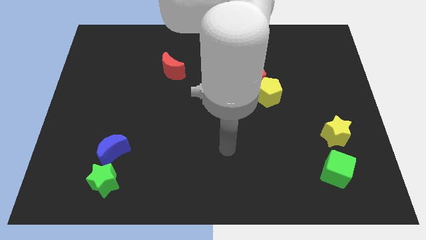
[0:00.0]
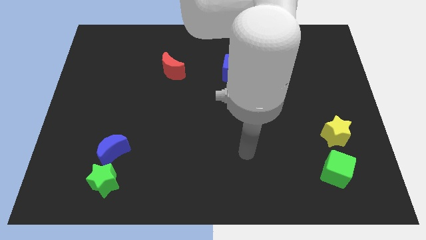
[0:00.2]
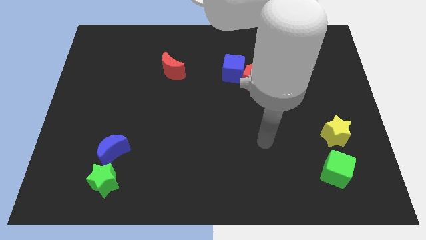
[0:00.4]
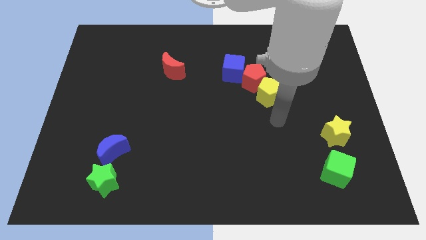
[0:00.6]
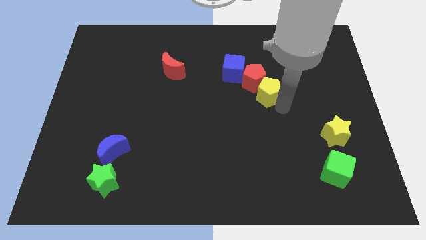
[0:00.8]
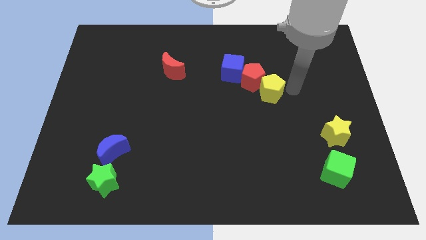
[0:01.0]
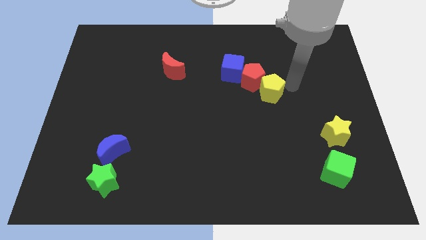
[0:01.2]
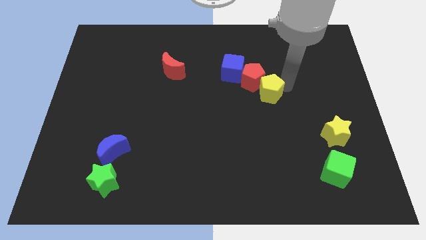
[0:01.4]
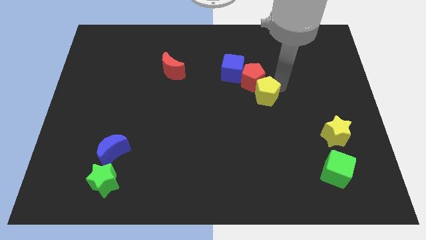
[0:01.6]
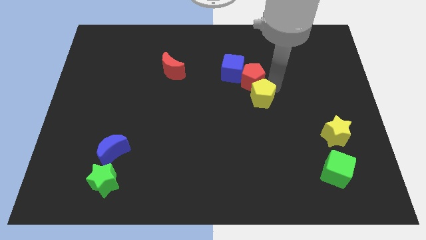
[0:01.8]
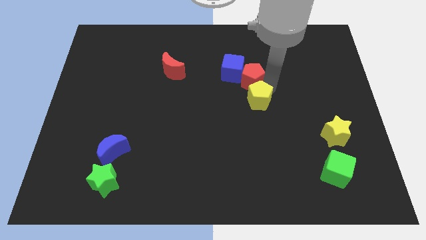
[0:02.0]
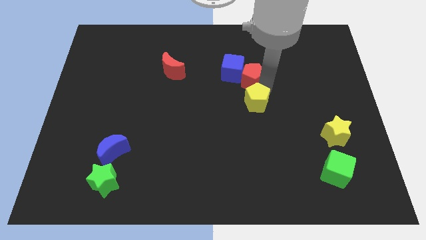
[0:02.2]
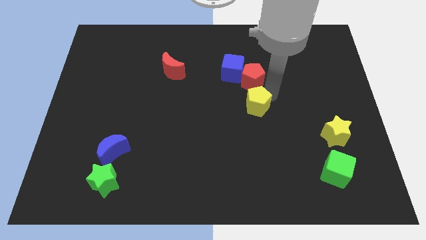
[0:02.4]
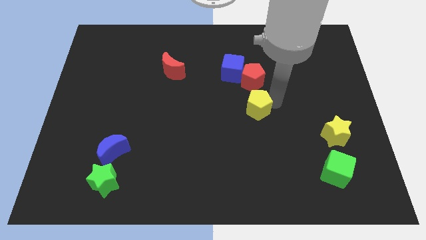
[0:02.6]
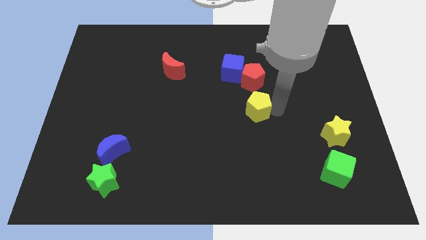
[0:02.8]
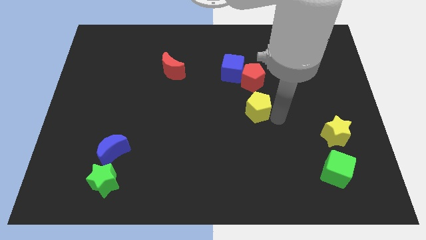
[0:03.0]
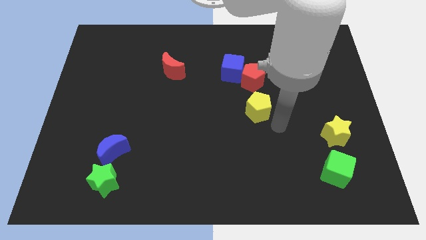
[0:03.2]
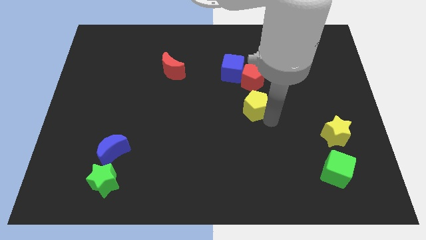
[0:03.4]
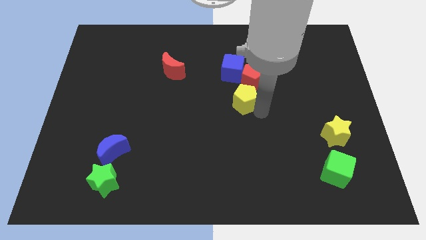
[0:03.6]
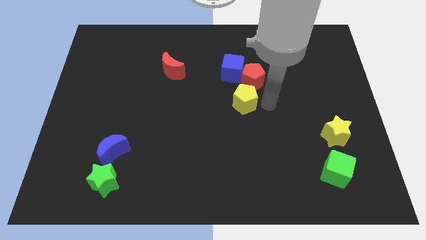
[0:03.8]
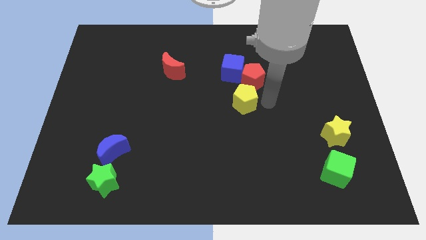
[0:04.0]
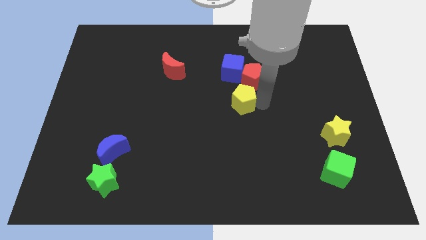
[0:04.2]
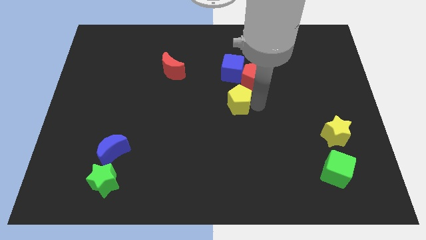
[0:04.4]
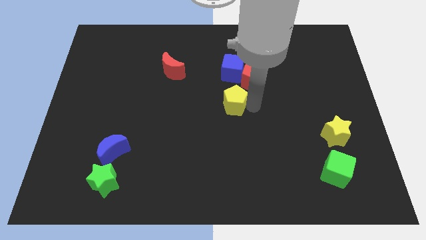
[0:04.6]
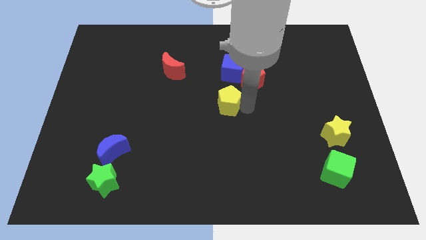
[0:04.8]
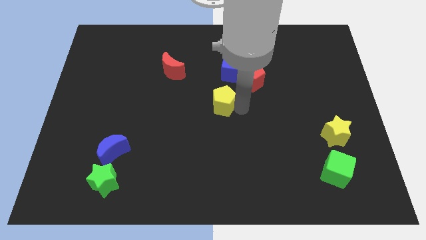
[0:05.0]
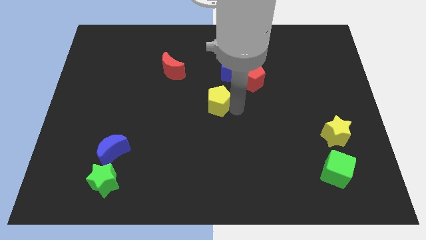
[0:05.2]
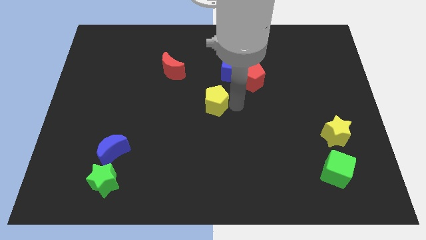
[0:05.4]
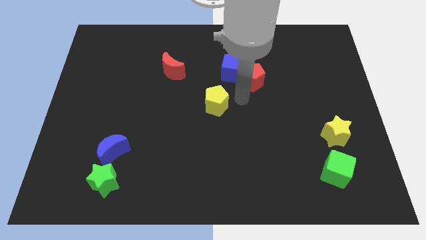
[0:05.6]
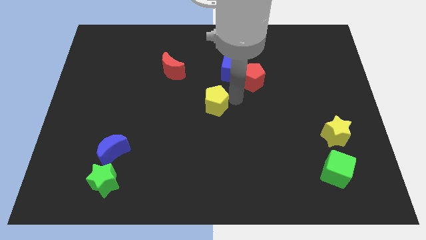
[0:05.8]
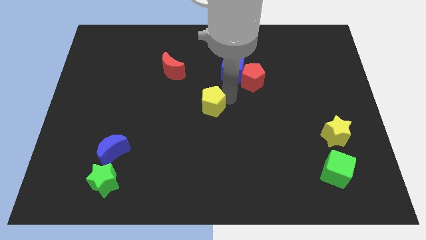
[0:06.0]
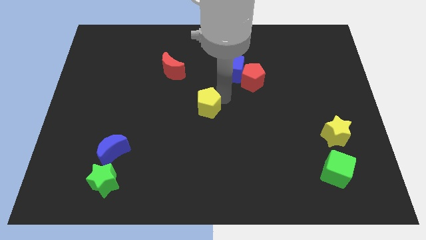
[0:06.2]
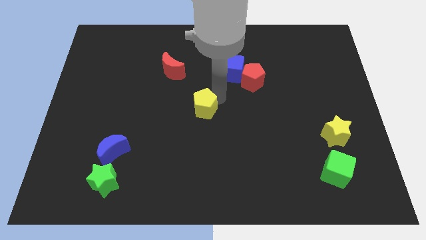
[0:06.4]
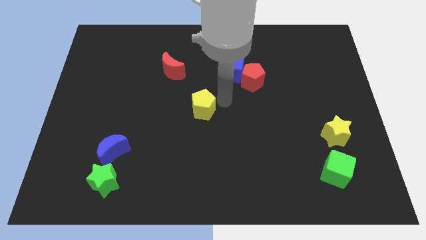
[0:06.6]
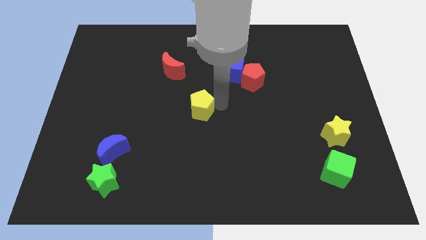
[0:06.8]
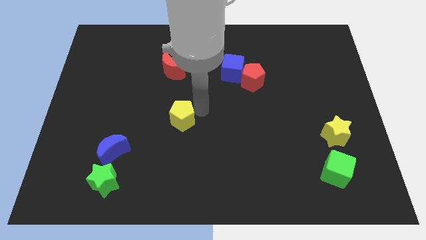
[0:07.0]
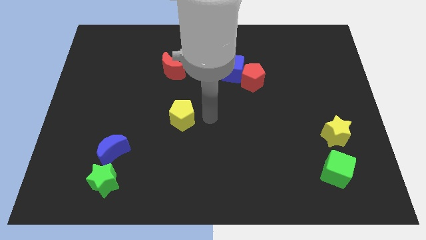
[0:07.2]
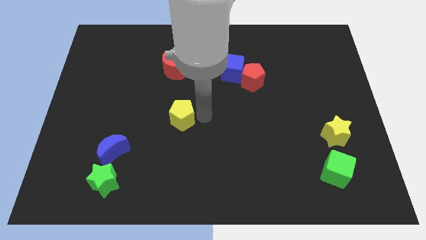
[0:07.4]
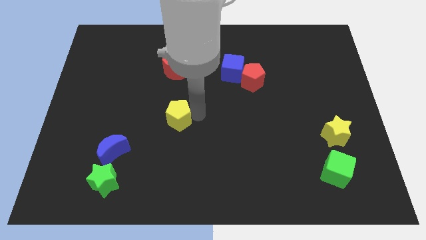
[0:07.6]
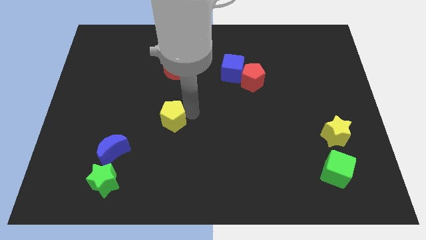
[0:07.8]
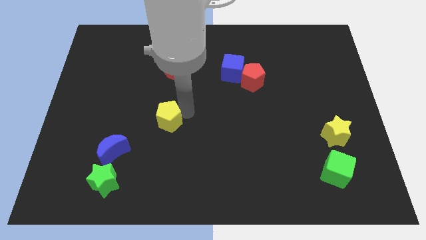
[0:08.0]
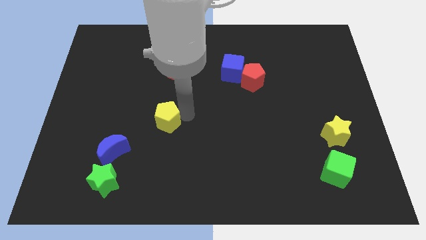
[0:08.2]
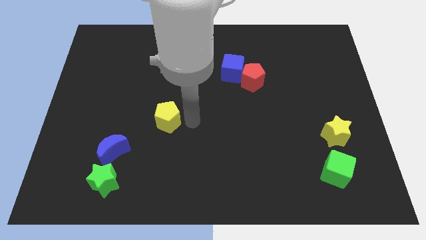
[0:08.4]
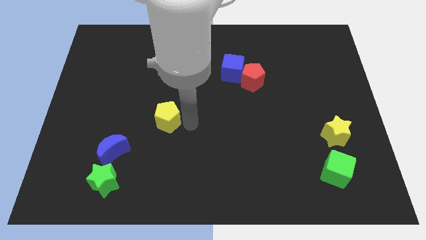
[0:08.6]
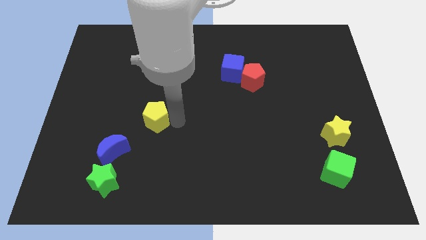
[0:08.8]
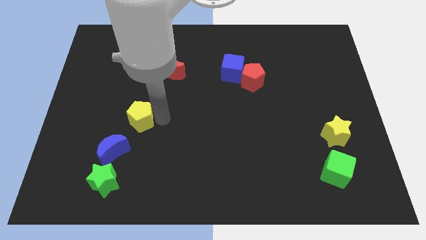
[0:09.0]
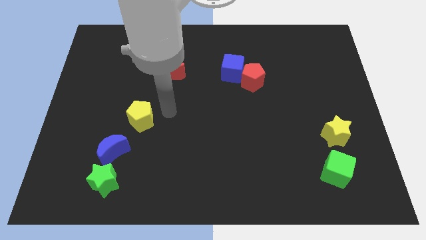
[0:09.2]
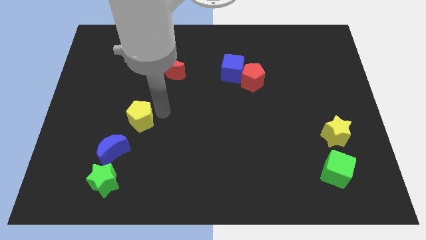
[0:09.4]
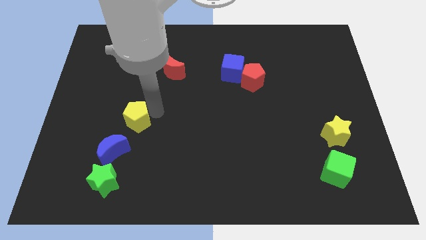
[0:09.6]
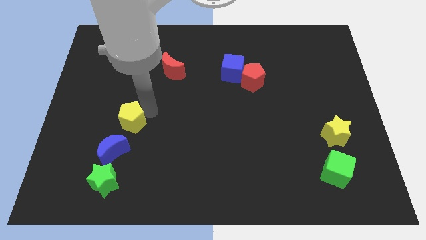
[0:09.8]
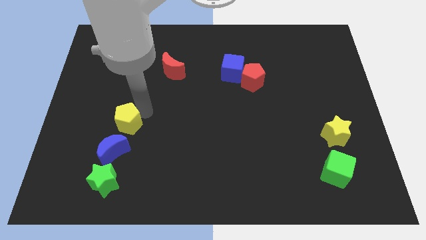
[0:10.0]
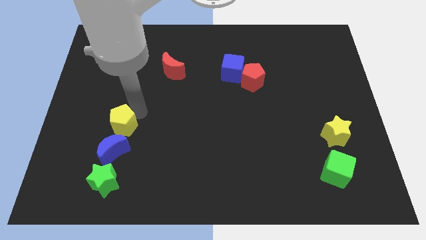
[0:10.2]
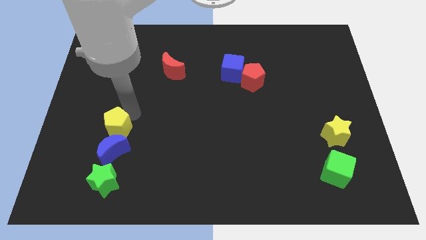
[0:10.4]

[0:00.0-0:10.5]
push the yellow pentagon to the top left side of the blue moon

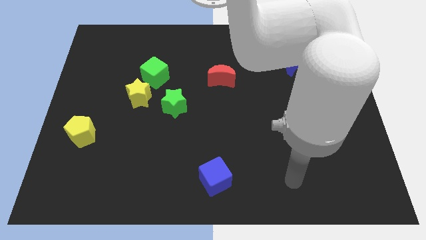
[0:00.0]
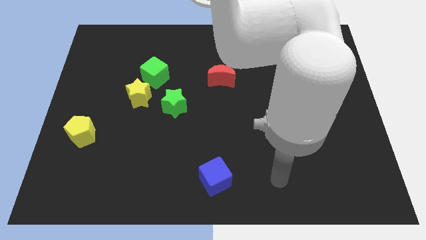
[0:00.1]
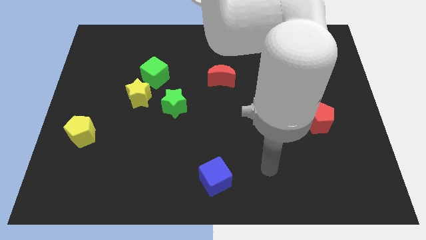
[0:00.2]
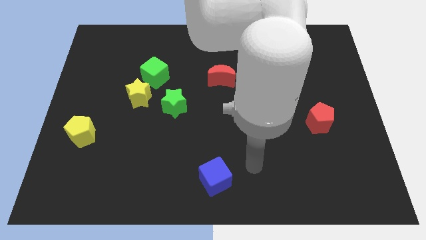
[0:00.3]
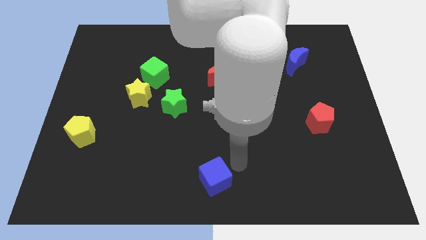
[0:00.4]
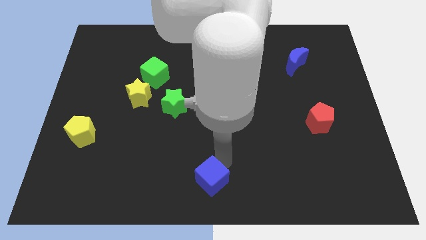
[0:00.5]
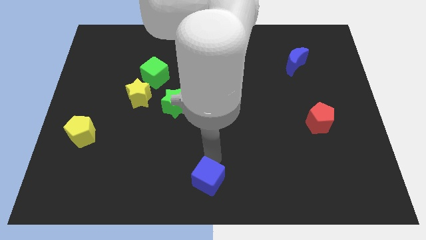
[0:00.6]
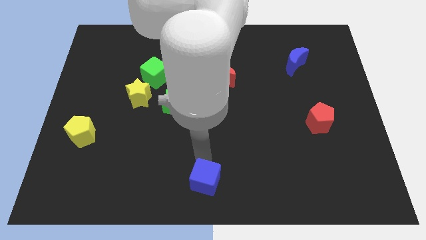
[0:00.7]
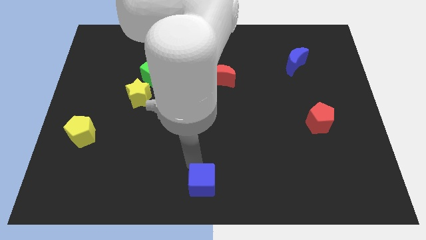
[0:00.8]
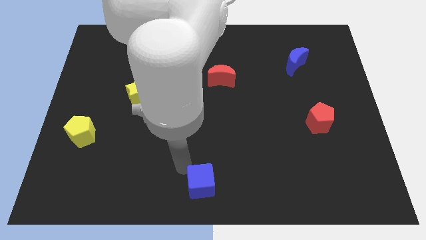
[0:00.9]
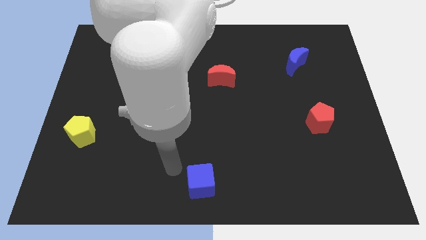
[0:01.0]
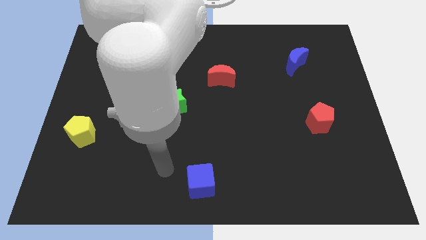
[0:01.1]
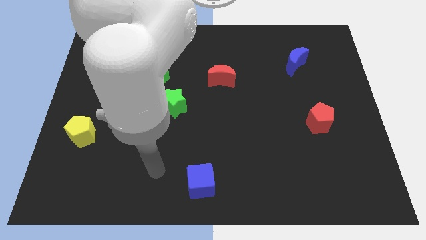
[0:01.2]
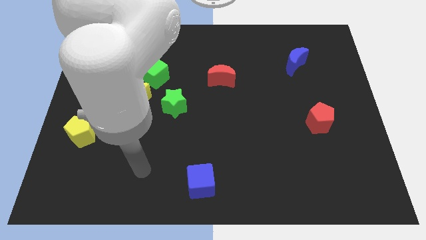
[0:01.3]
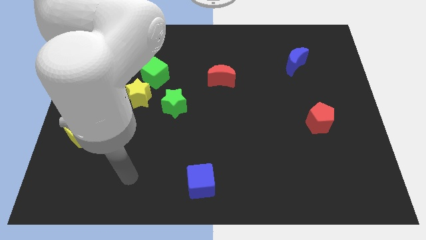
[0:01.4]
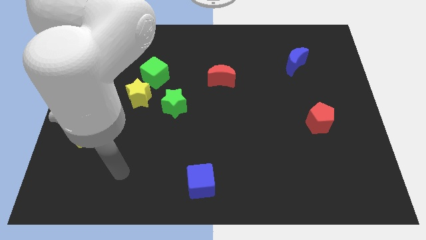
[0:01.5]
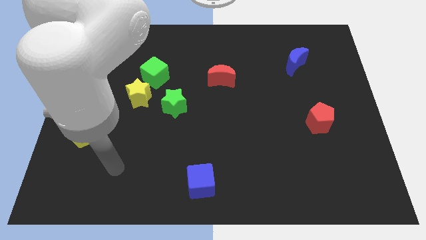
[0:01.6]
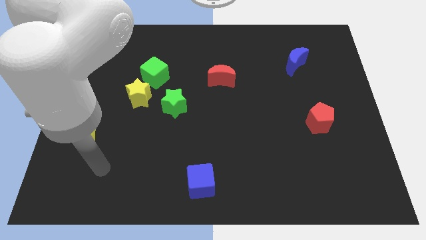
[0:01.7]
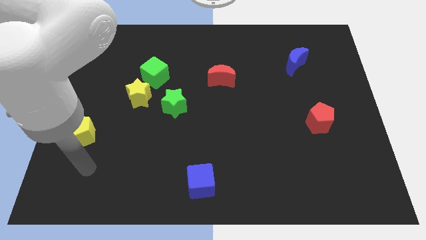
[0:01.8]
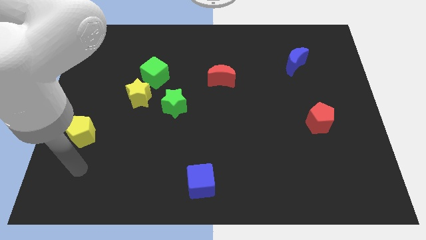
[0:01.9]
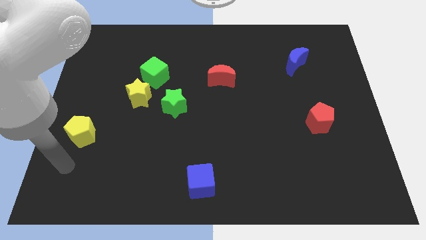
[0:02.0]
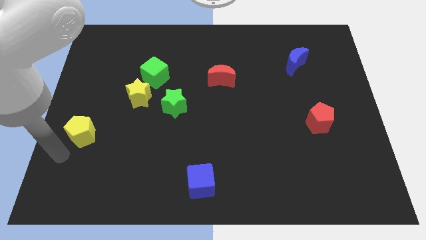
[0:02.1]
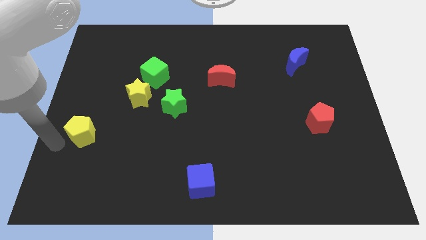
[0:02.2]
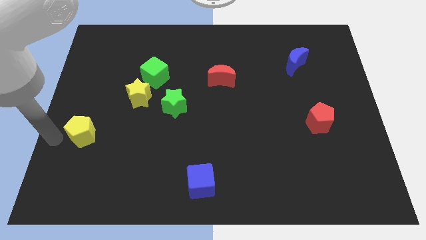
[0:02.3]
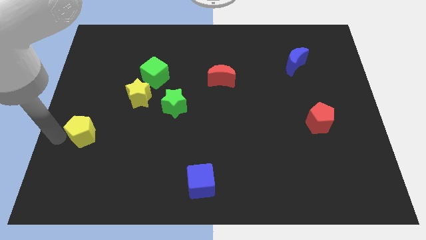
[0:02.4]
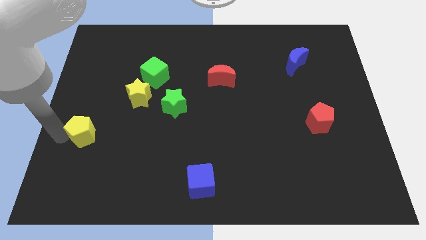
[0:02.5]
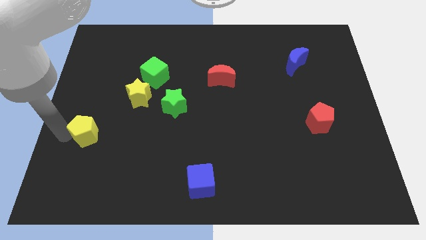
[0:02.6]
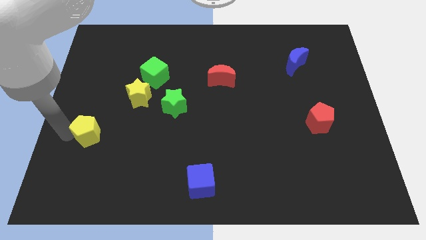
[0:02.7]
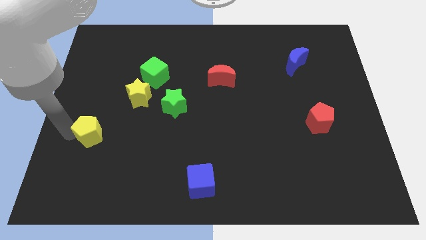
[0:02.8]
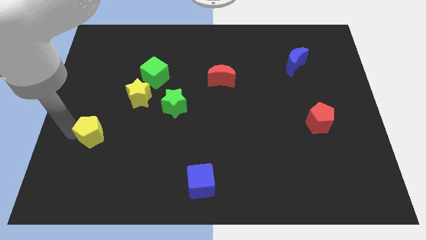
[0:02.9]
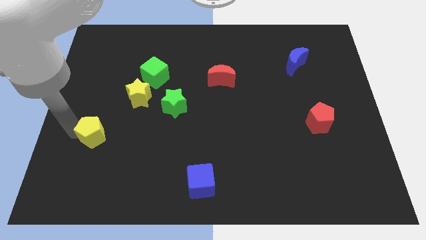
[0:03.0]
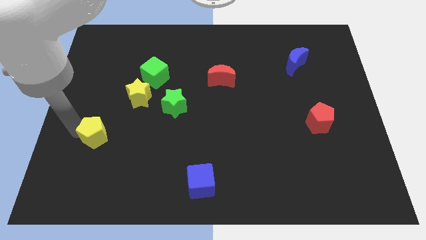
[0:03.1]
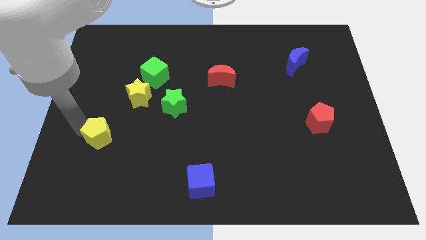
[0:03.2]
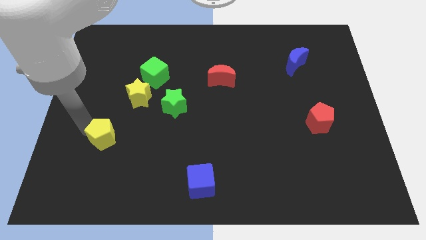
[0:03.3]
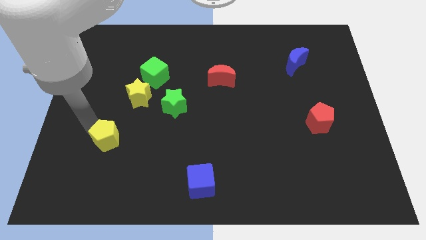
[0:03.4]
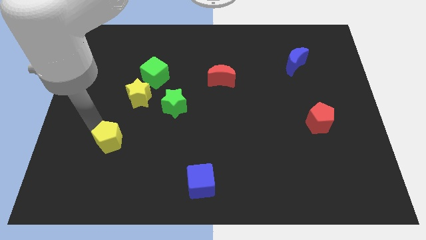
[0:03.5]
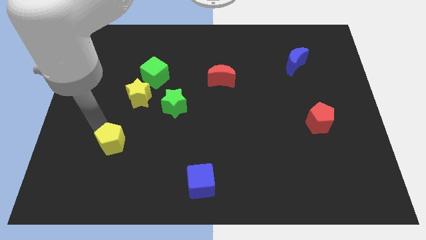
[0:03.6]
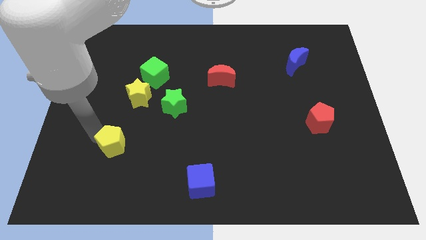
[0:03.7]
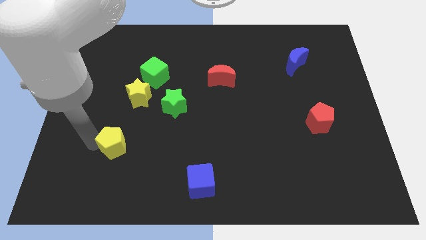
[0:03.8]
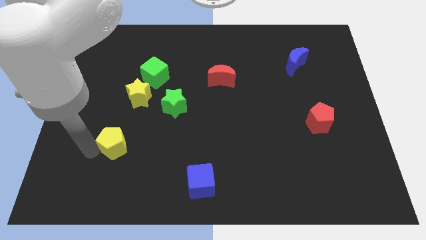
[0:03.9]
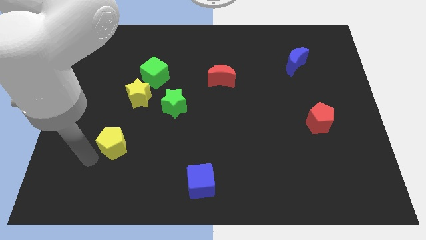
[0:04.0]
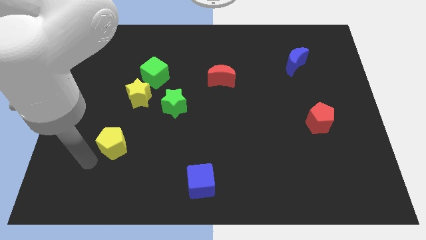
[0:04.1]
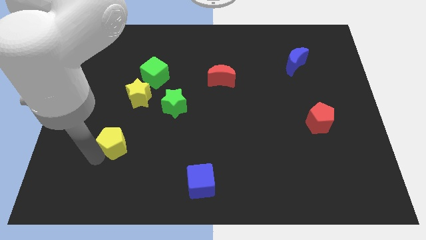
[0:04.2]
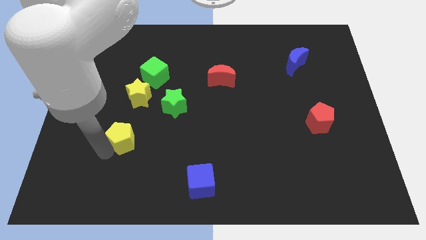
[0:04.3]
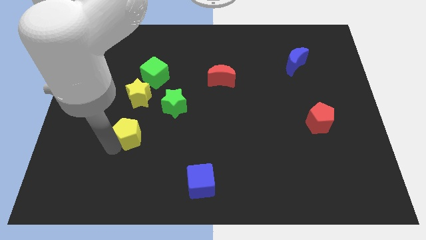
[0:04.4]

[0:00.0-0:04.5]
slide the yellow pentagon to the bottom left of the green star
